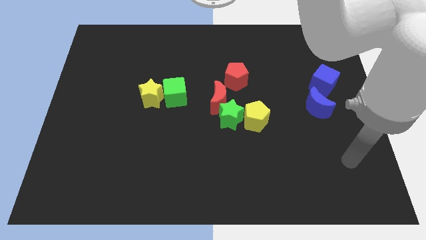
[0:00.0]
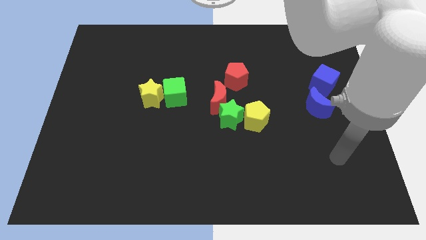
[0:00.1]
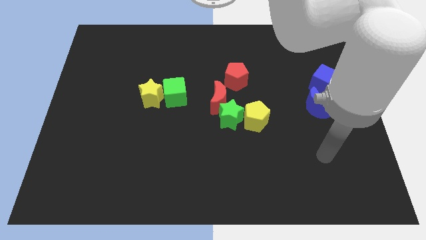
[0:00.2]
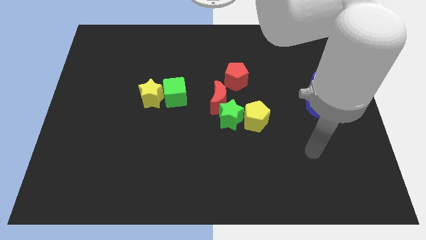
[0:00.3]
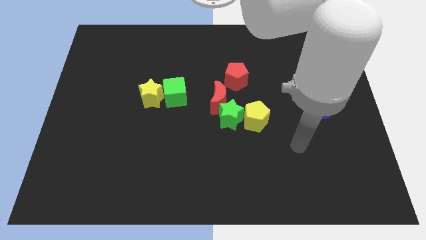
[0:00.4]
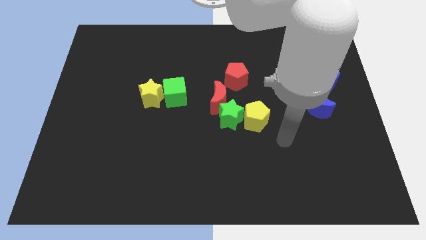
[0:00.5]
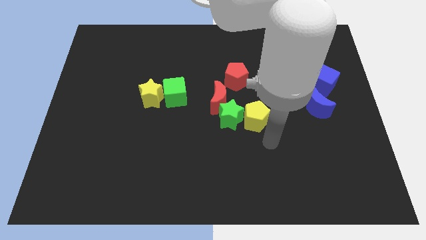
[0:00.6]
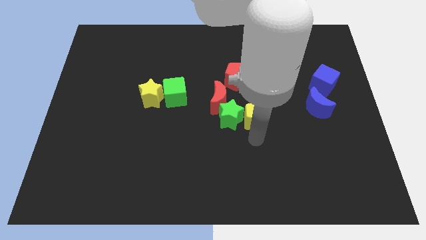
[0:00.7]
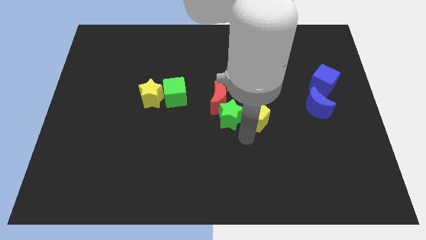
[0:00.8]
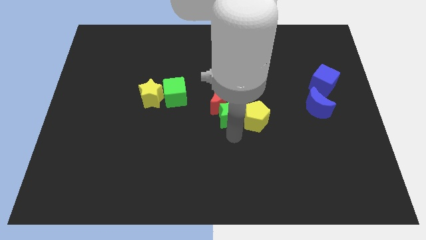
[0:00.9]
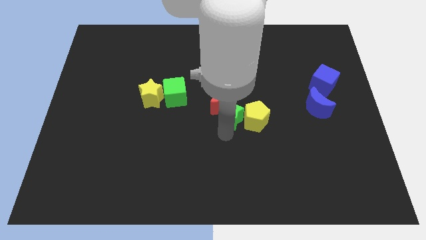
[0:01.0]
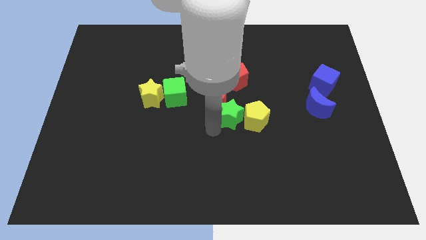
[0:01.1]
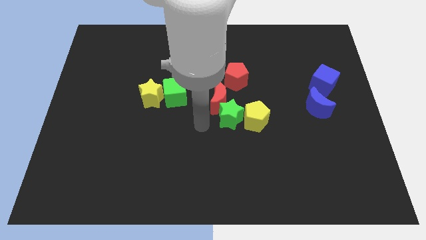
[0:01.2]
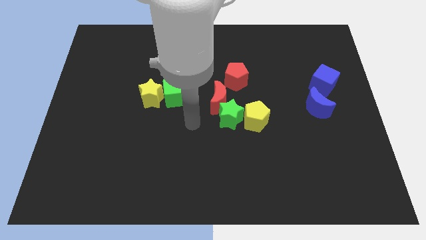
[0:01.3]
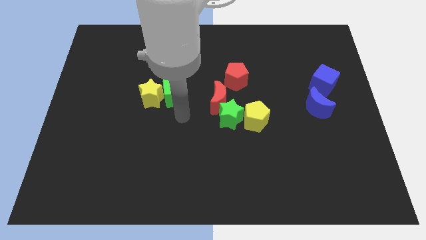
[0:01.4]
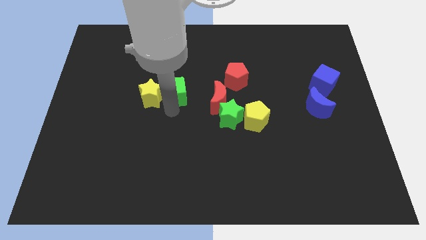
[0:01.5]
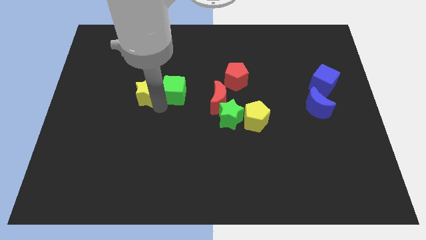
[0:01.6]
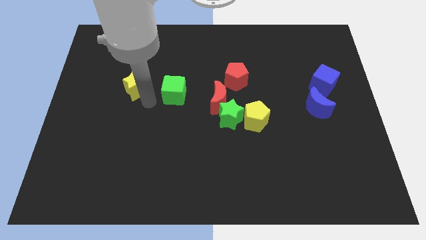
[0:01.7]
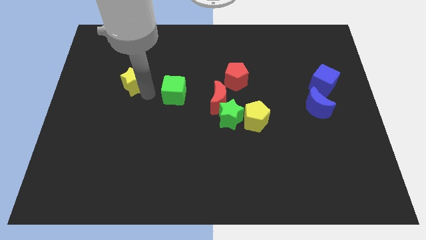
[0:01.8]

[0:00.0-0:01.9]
pull the green cube apart from the yellow star

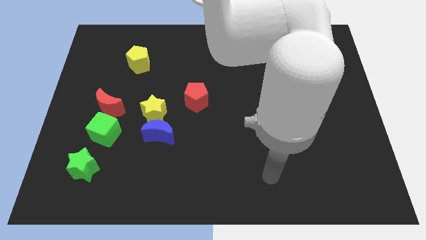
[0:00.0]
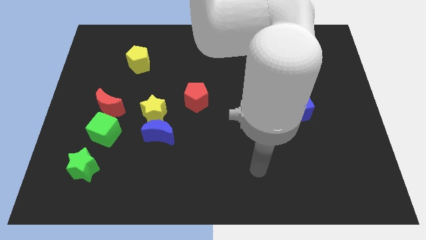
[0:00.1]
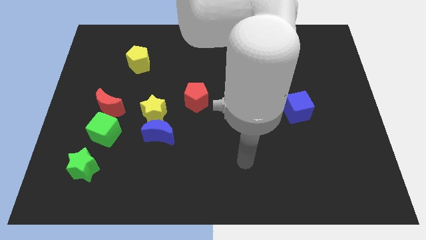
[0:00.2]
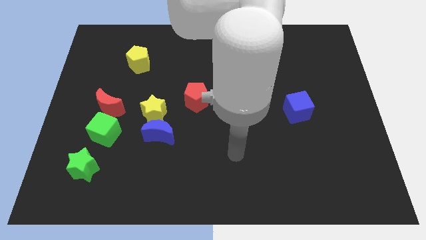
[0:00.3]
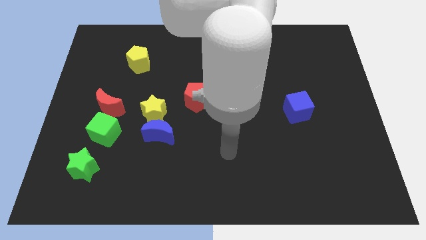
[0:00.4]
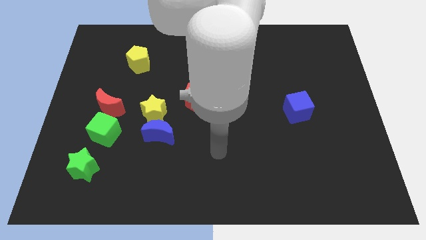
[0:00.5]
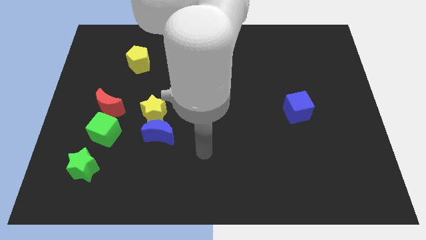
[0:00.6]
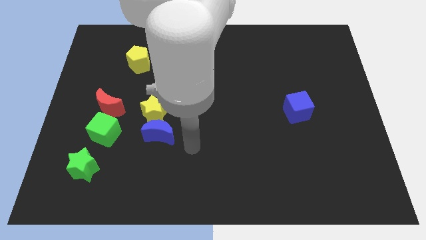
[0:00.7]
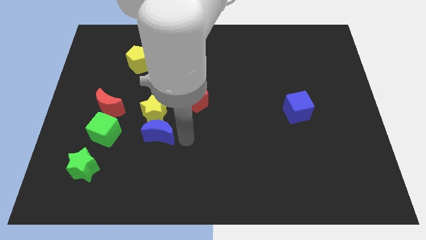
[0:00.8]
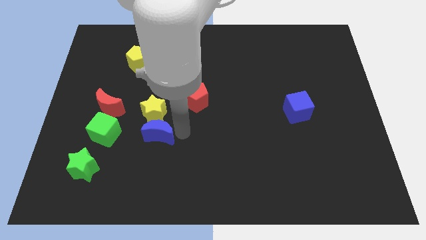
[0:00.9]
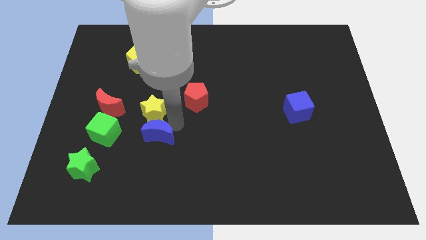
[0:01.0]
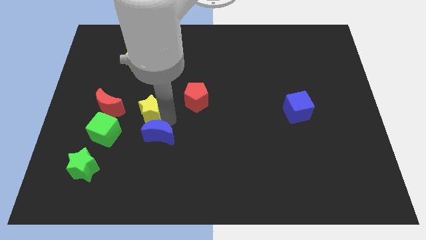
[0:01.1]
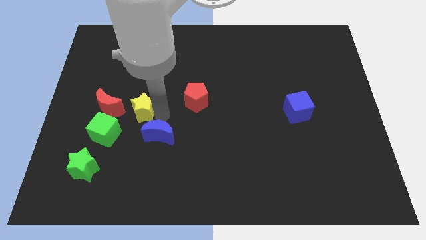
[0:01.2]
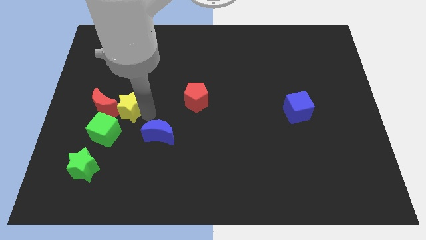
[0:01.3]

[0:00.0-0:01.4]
separate the blue moon from the yellow star

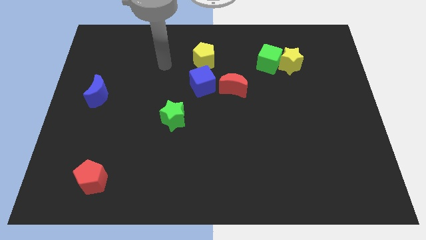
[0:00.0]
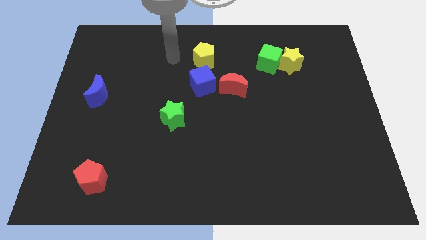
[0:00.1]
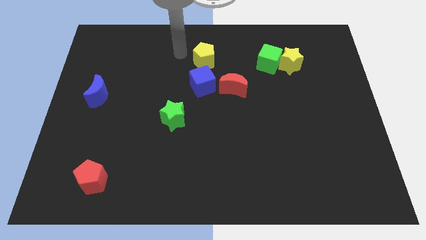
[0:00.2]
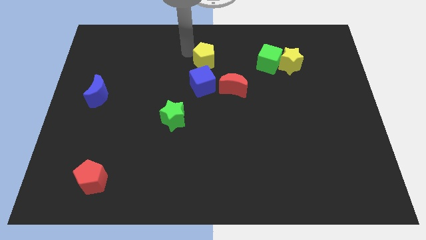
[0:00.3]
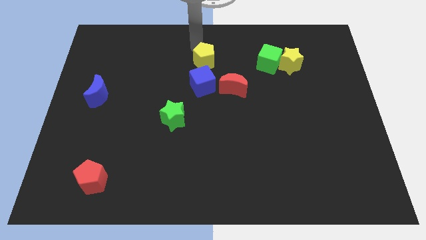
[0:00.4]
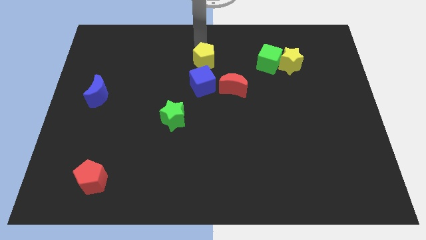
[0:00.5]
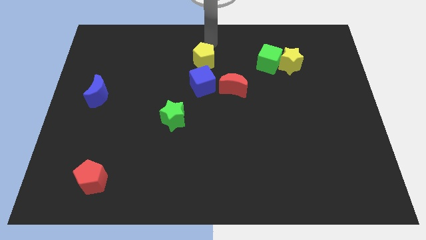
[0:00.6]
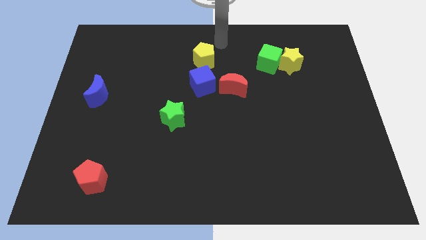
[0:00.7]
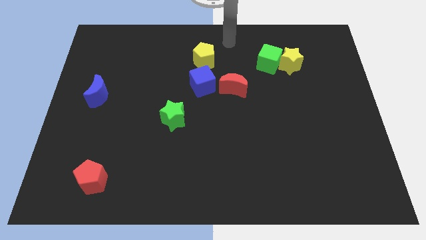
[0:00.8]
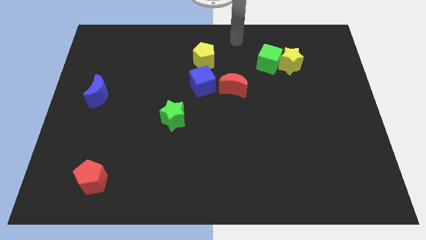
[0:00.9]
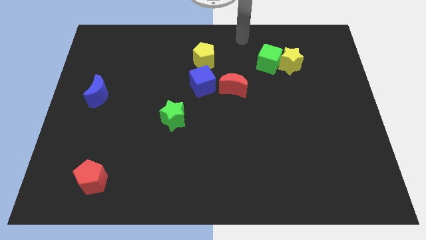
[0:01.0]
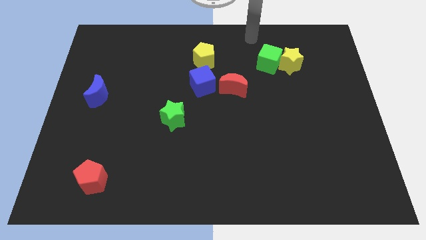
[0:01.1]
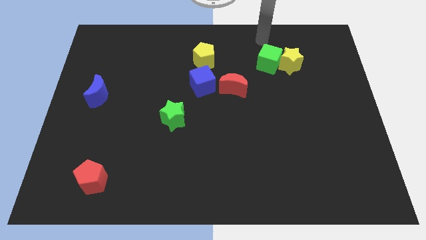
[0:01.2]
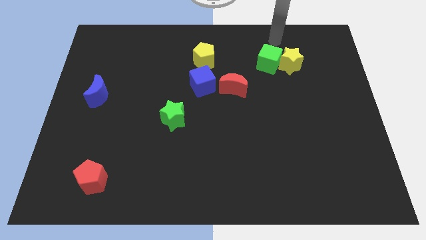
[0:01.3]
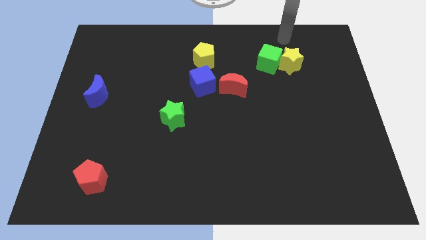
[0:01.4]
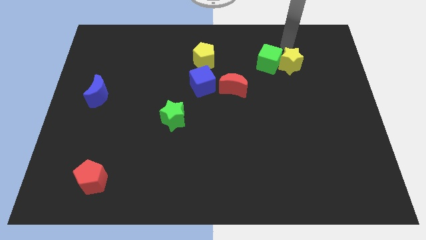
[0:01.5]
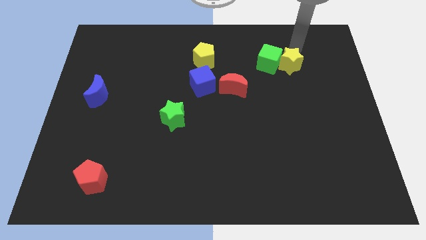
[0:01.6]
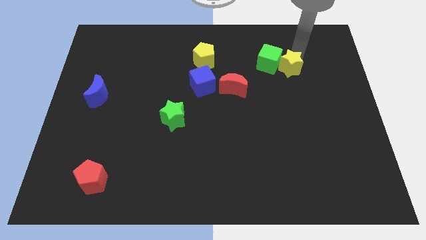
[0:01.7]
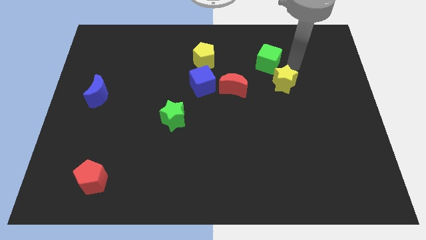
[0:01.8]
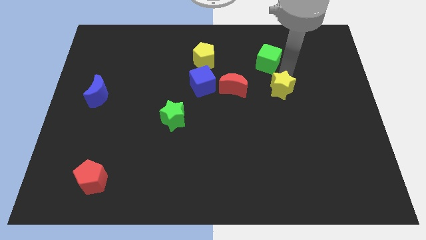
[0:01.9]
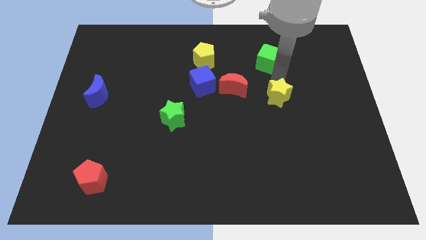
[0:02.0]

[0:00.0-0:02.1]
move the green cube away from the yellow star

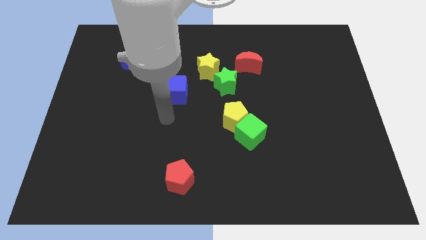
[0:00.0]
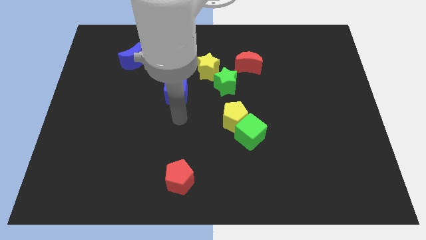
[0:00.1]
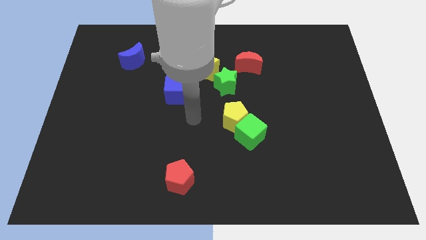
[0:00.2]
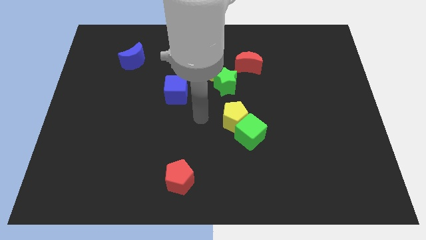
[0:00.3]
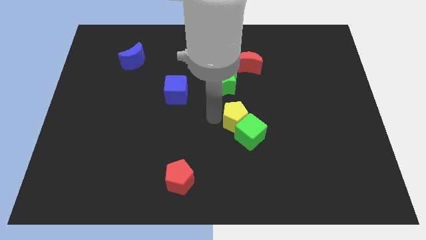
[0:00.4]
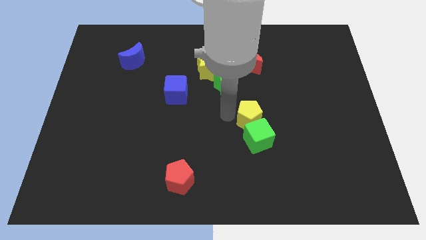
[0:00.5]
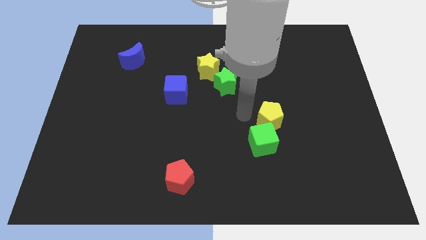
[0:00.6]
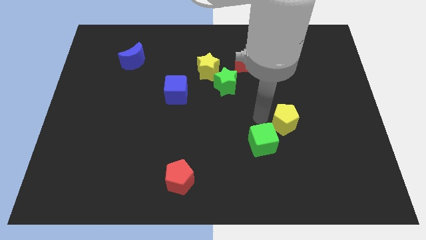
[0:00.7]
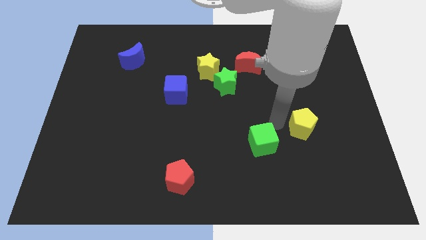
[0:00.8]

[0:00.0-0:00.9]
move the green cube away from the yellow pentagon

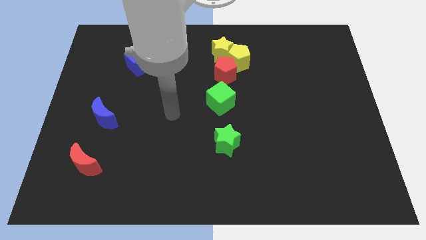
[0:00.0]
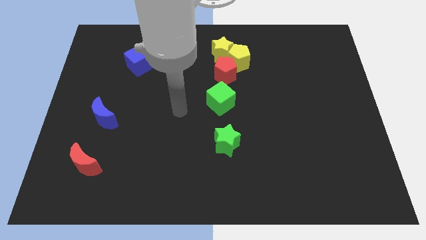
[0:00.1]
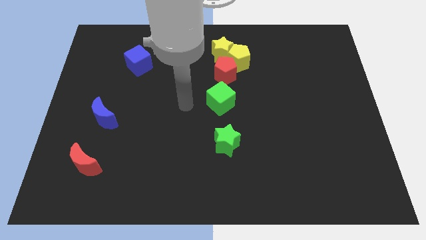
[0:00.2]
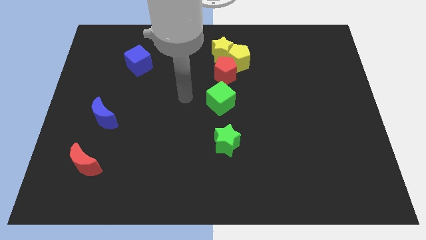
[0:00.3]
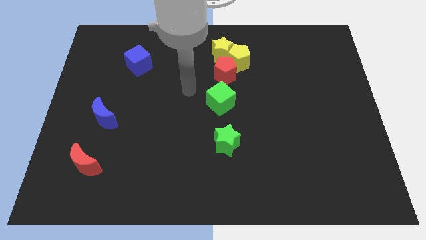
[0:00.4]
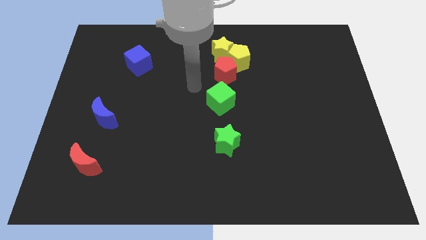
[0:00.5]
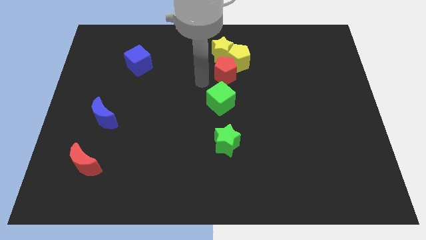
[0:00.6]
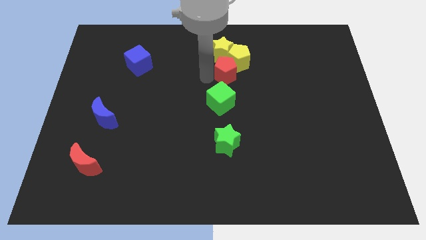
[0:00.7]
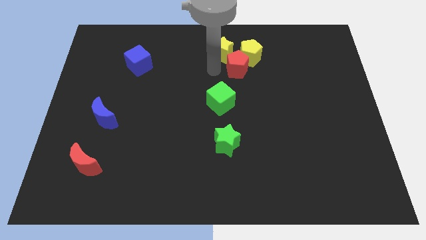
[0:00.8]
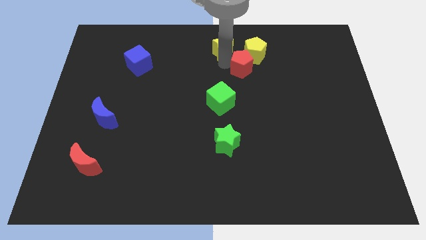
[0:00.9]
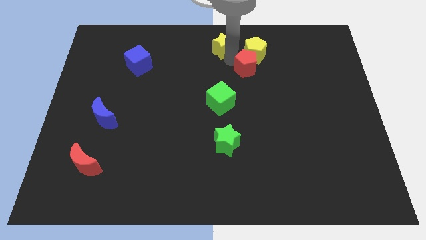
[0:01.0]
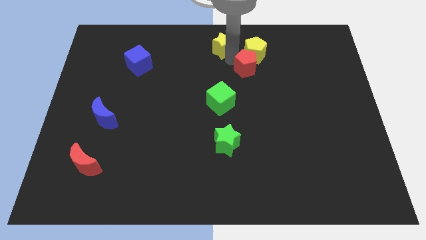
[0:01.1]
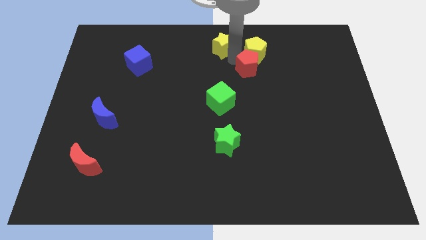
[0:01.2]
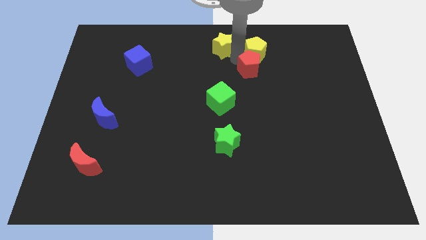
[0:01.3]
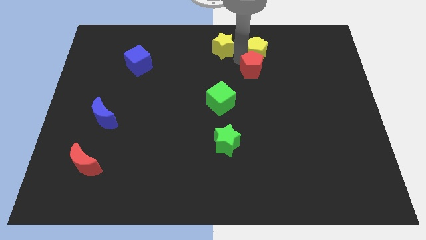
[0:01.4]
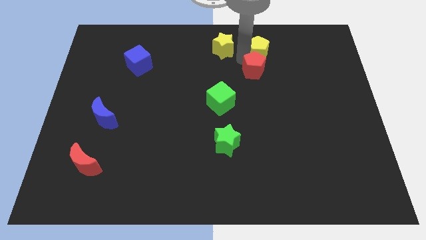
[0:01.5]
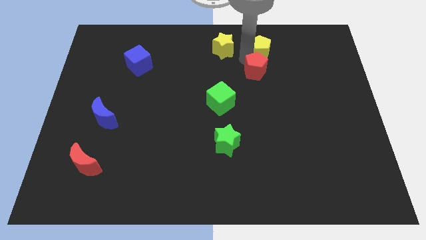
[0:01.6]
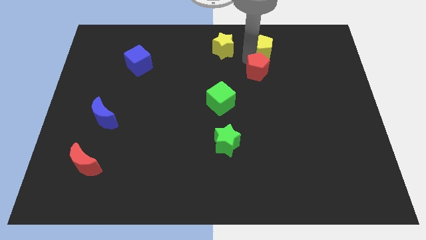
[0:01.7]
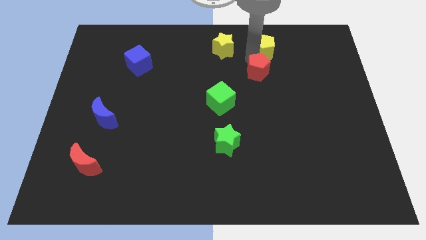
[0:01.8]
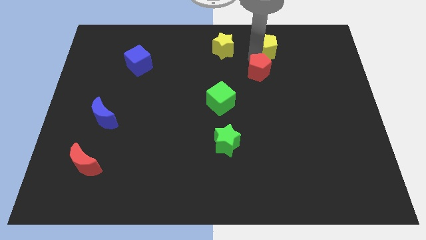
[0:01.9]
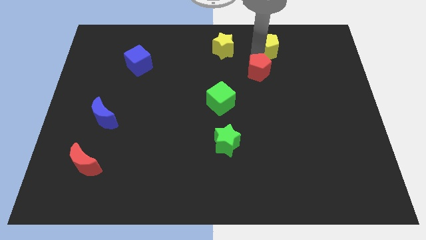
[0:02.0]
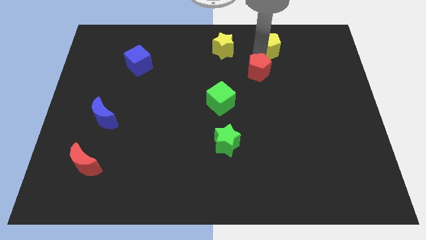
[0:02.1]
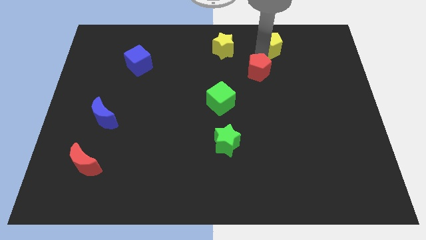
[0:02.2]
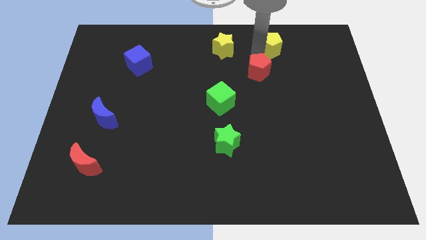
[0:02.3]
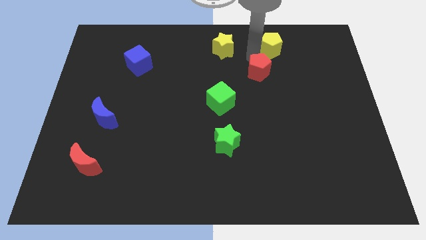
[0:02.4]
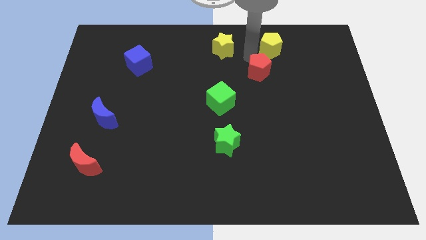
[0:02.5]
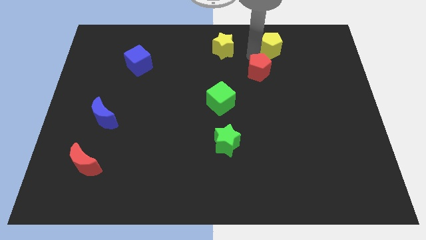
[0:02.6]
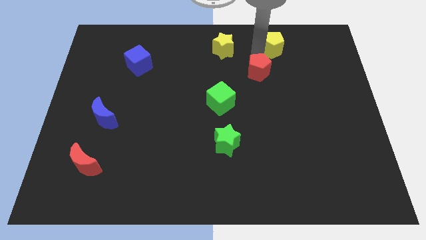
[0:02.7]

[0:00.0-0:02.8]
separate the yellow pentagon from the yellow star and red pentagon

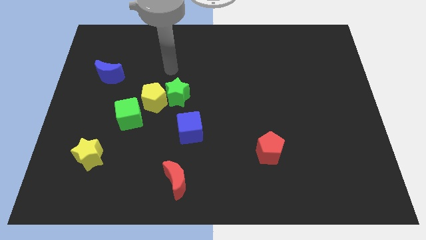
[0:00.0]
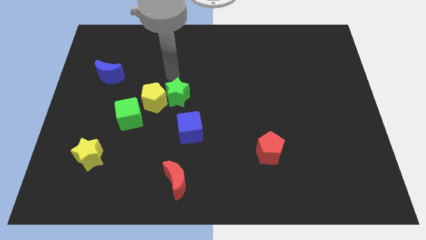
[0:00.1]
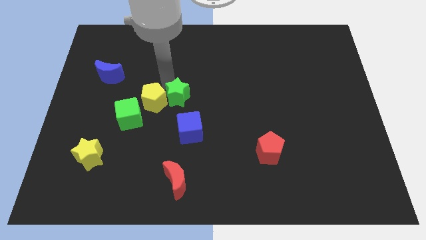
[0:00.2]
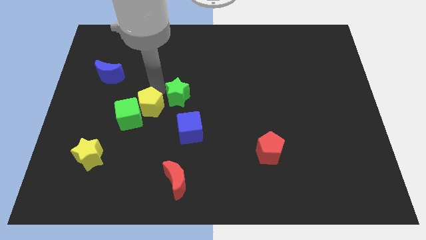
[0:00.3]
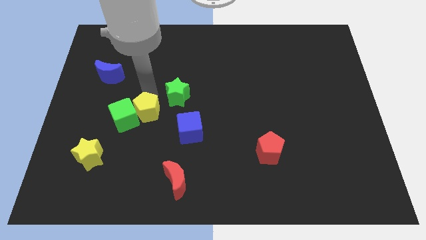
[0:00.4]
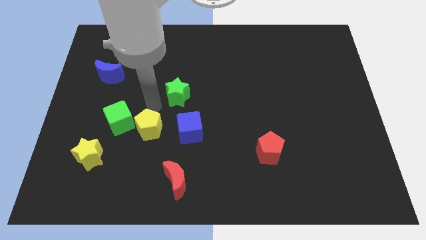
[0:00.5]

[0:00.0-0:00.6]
move the green star away from the yellow pentagon
